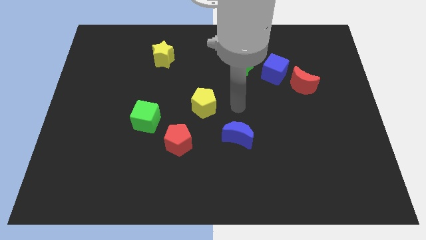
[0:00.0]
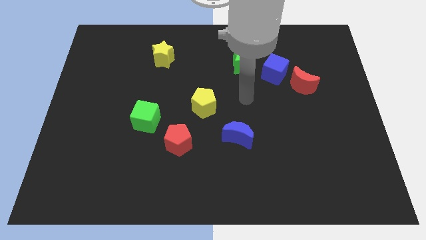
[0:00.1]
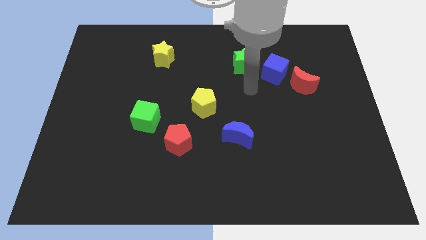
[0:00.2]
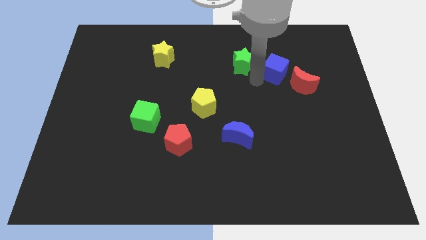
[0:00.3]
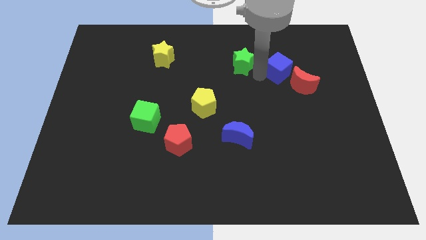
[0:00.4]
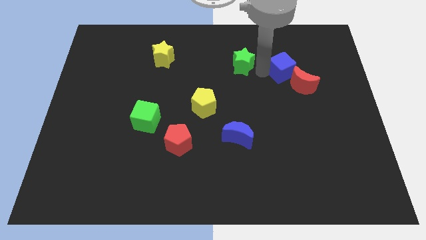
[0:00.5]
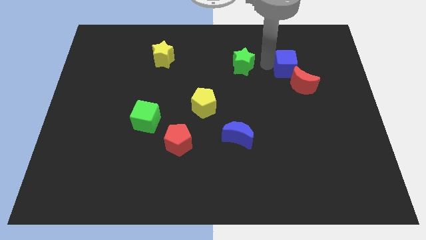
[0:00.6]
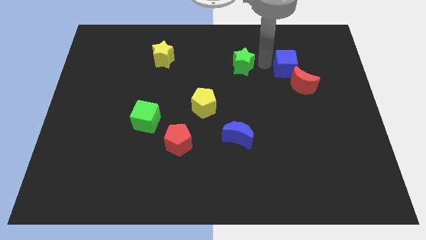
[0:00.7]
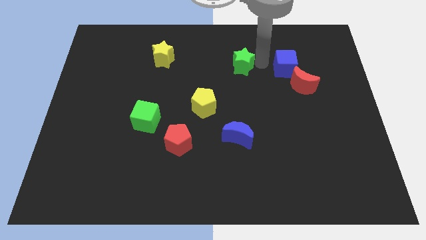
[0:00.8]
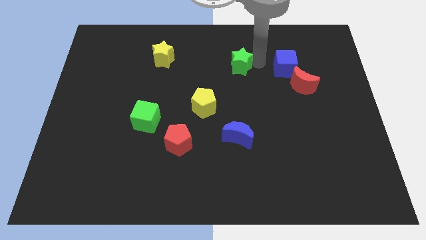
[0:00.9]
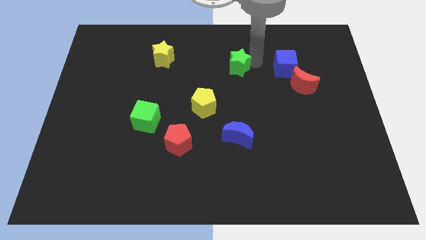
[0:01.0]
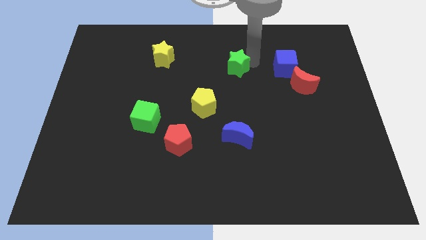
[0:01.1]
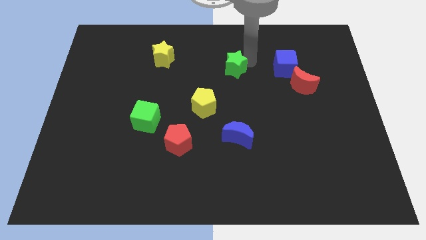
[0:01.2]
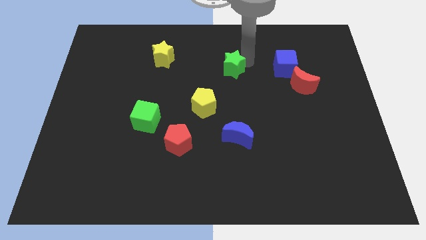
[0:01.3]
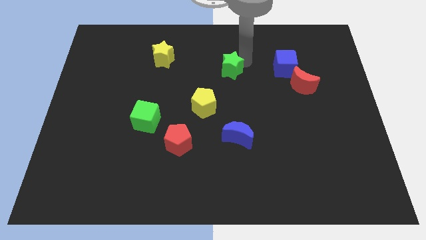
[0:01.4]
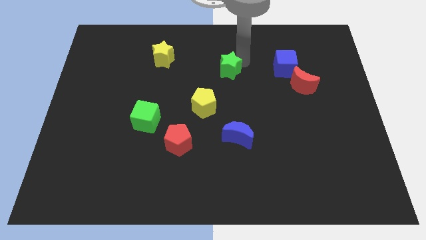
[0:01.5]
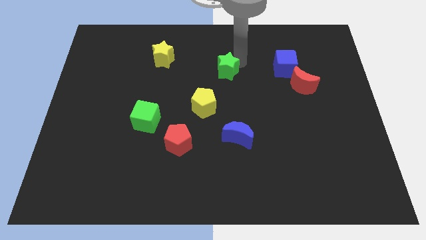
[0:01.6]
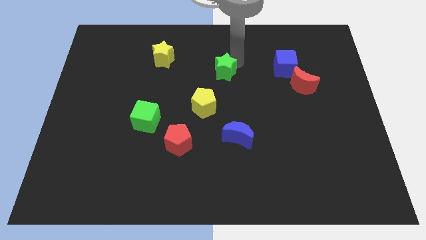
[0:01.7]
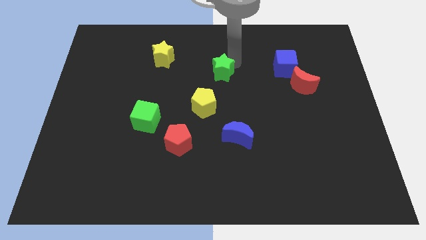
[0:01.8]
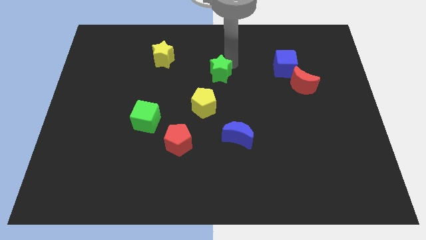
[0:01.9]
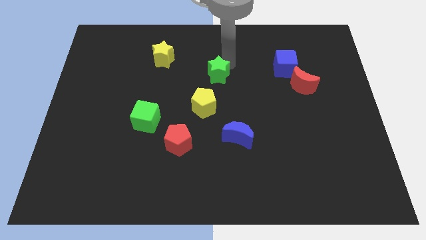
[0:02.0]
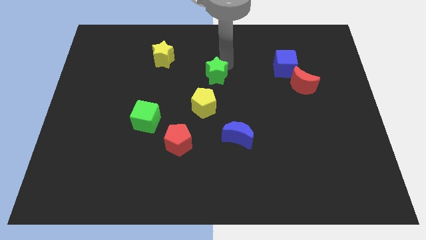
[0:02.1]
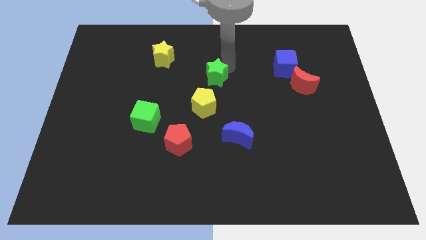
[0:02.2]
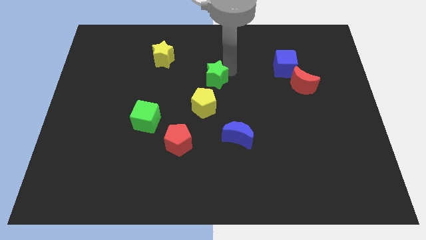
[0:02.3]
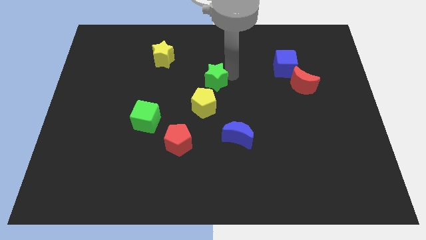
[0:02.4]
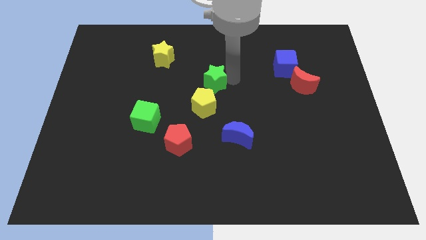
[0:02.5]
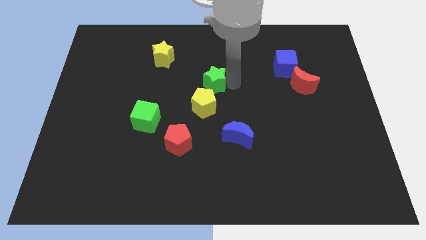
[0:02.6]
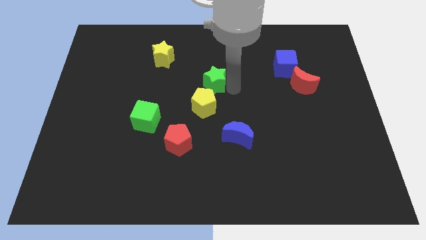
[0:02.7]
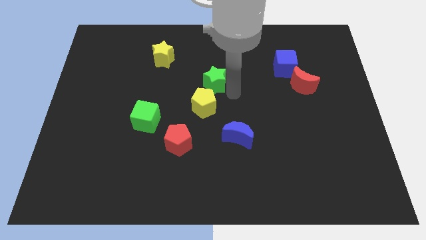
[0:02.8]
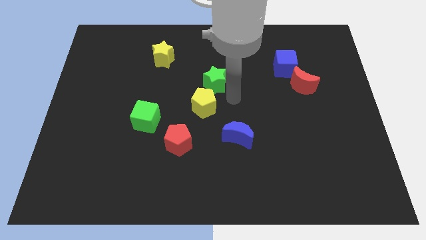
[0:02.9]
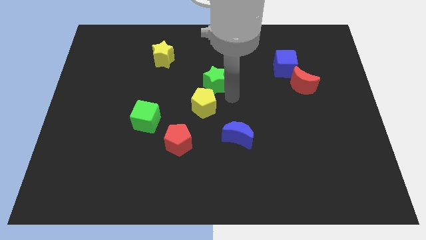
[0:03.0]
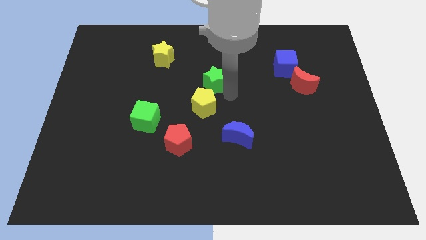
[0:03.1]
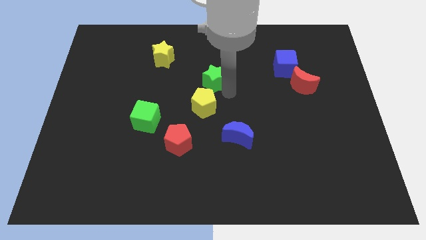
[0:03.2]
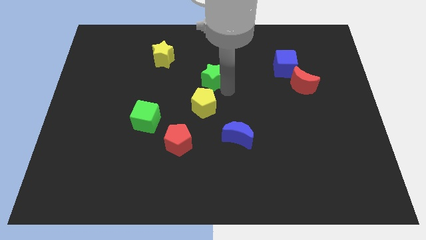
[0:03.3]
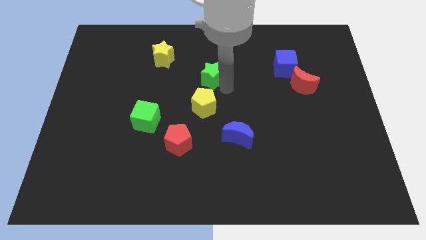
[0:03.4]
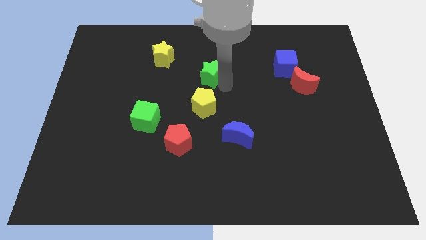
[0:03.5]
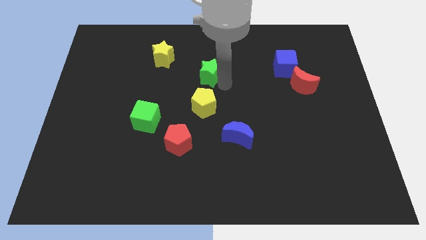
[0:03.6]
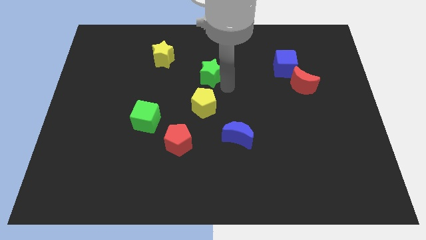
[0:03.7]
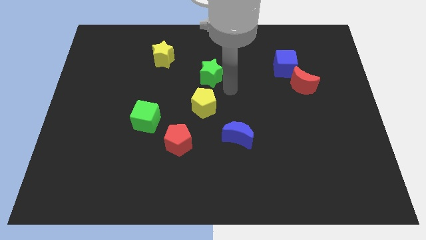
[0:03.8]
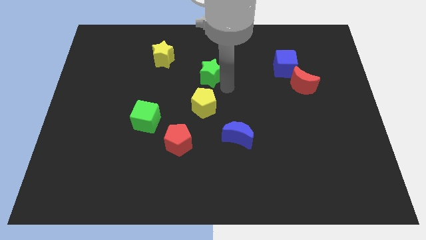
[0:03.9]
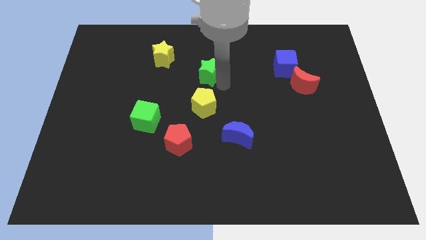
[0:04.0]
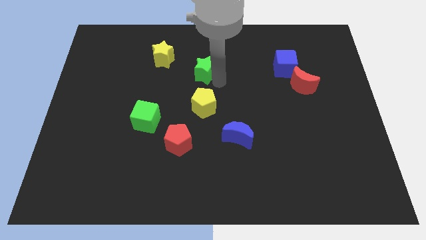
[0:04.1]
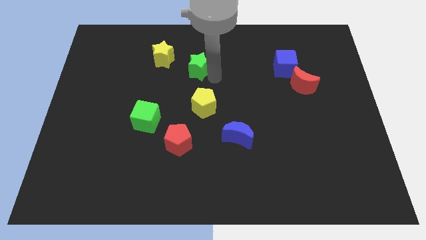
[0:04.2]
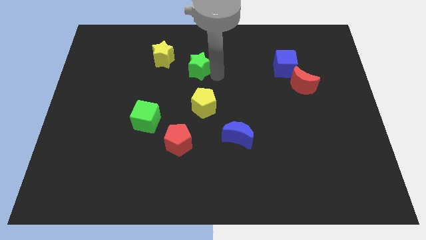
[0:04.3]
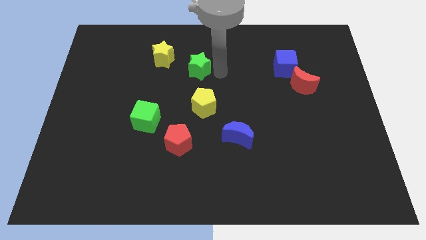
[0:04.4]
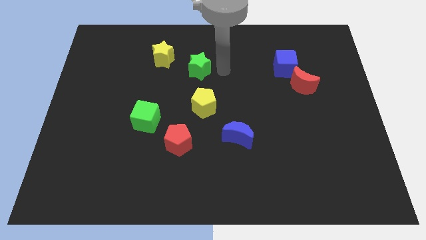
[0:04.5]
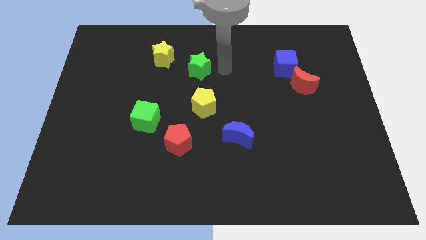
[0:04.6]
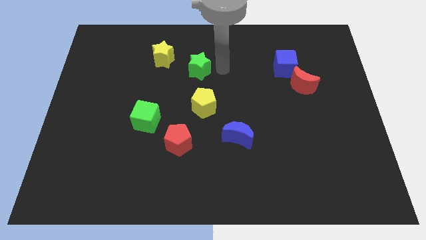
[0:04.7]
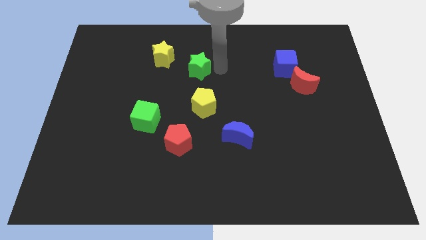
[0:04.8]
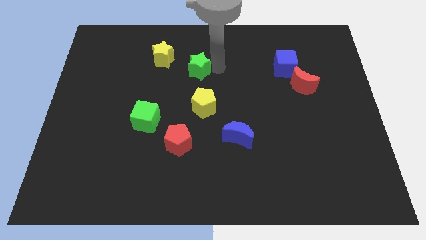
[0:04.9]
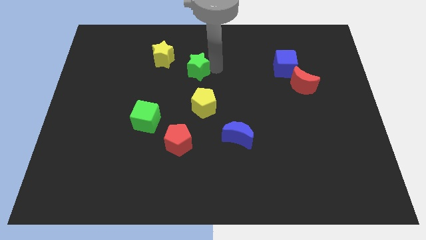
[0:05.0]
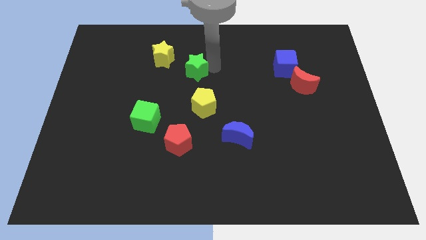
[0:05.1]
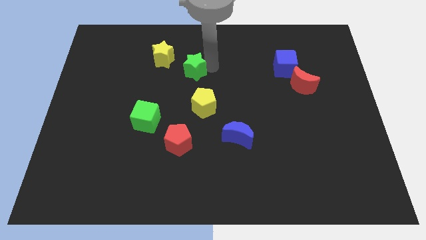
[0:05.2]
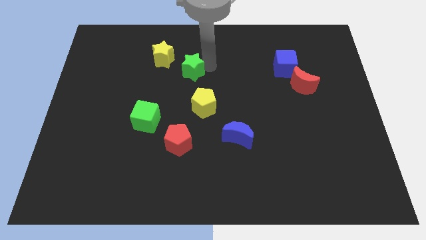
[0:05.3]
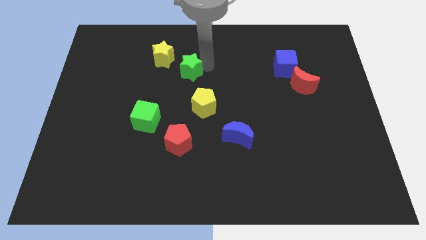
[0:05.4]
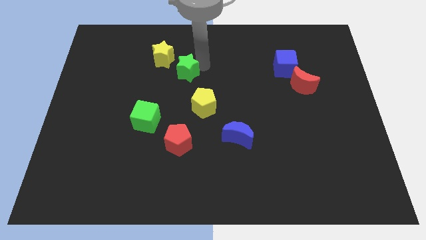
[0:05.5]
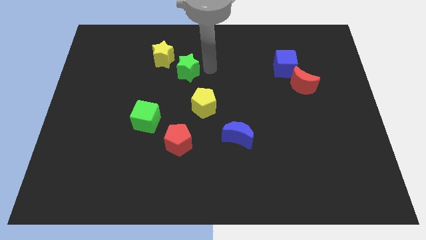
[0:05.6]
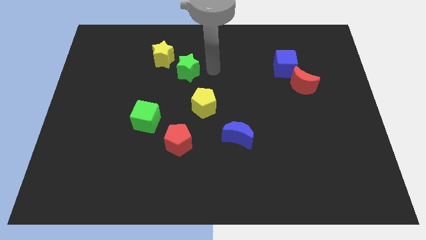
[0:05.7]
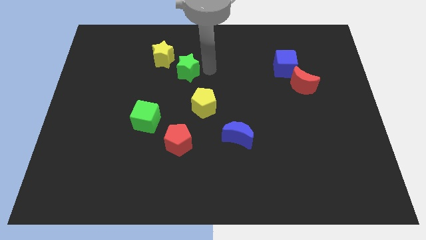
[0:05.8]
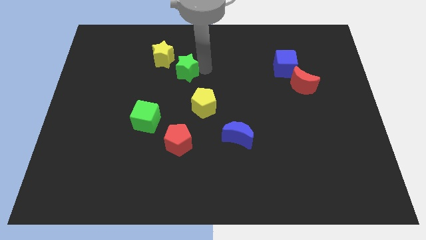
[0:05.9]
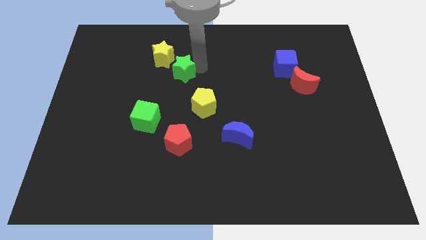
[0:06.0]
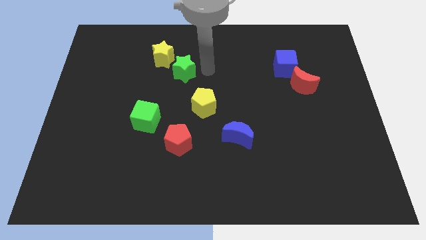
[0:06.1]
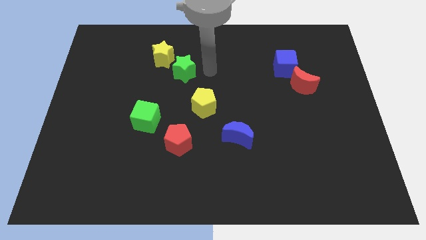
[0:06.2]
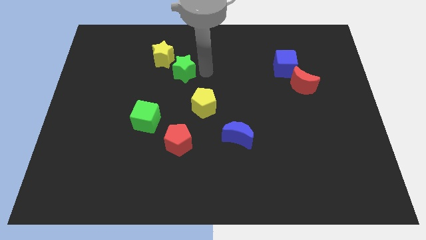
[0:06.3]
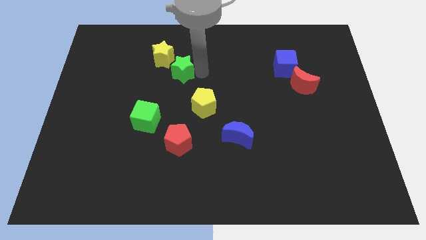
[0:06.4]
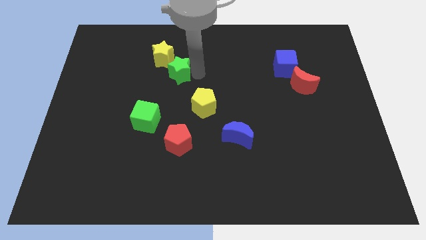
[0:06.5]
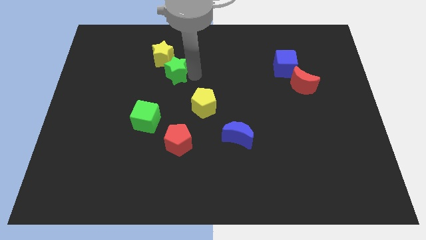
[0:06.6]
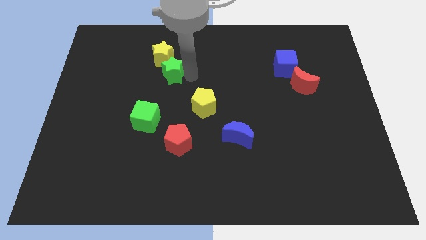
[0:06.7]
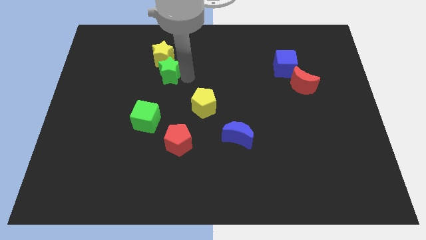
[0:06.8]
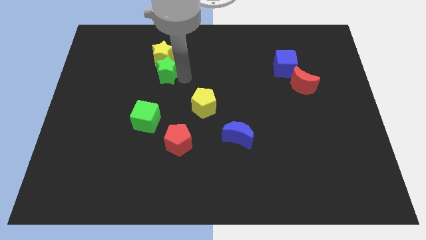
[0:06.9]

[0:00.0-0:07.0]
push the green star diagonally down and to the left of the yellow star

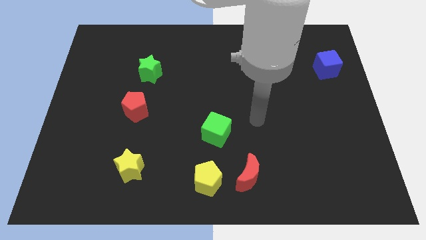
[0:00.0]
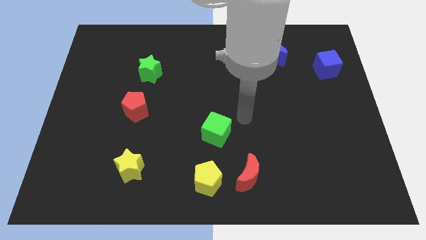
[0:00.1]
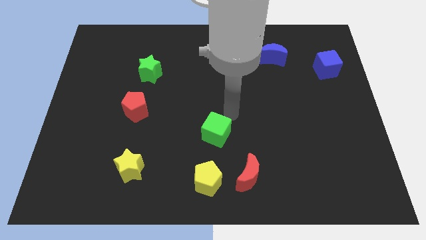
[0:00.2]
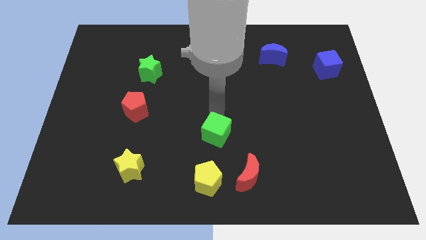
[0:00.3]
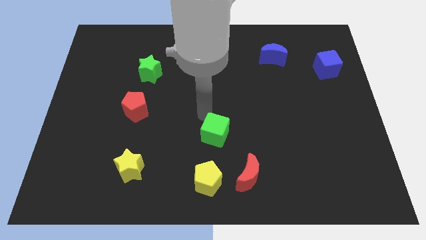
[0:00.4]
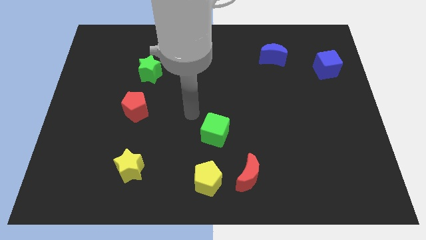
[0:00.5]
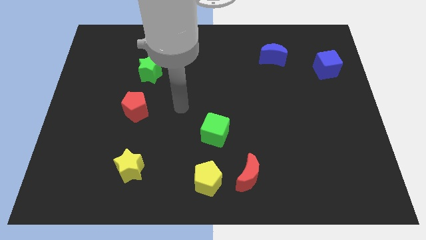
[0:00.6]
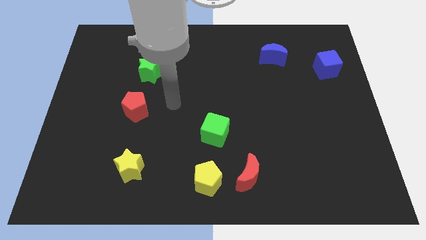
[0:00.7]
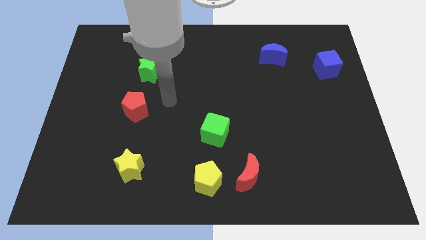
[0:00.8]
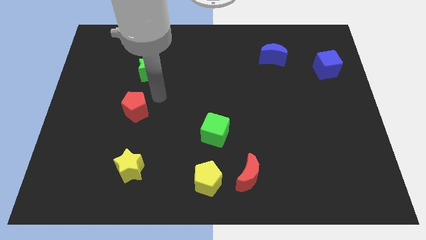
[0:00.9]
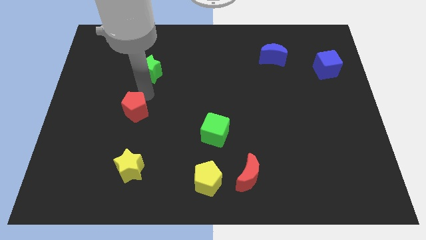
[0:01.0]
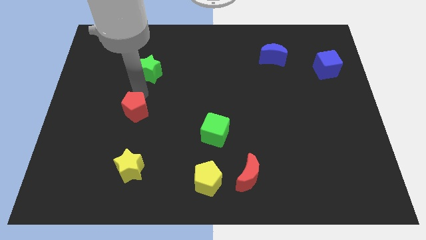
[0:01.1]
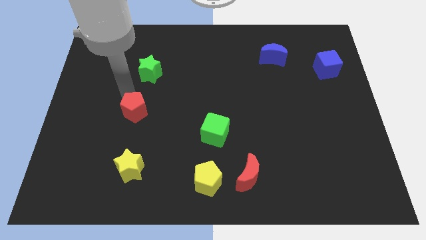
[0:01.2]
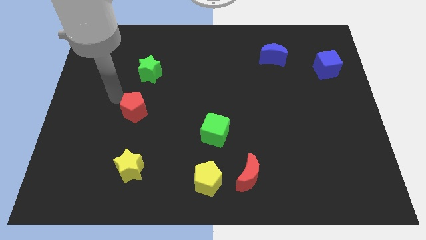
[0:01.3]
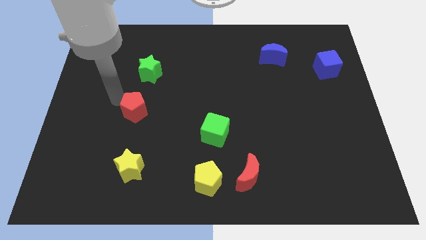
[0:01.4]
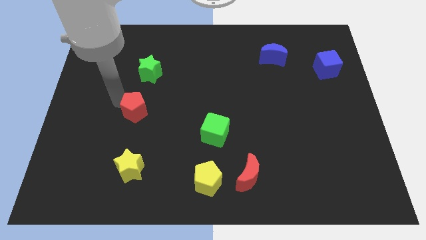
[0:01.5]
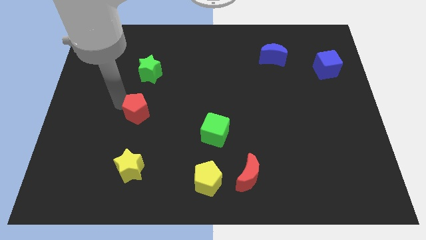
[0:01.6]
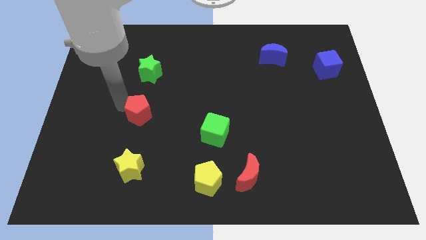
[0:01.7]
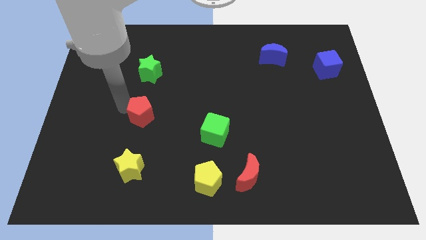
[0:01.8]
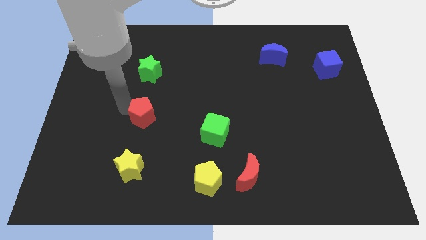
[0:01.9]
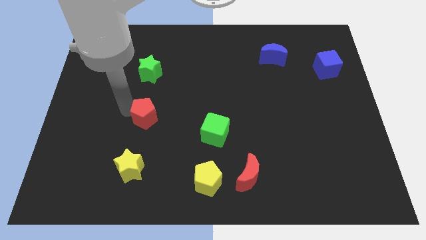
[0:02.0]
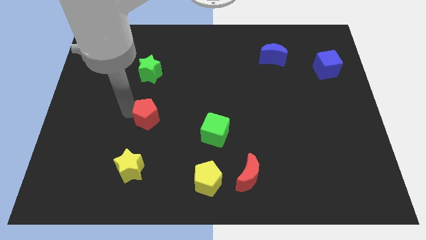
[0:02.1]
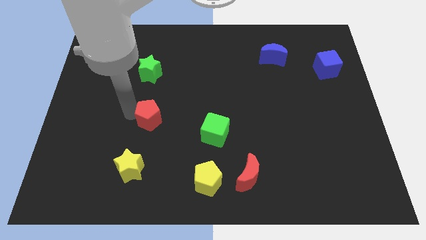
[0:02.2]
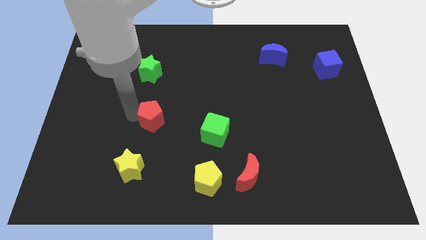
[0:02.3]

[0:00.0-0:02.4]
slide the red pentagon just left of the green cube
